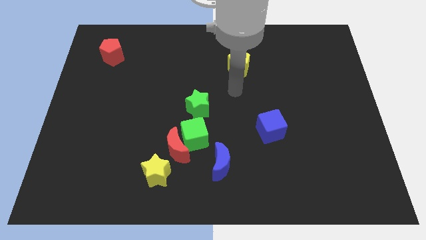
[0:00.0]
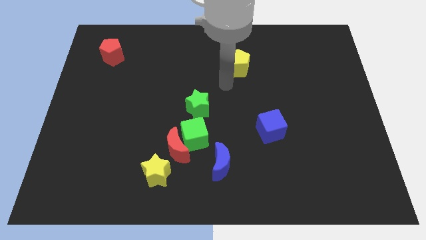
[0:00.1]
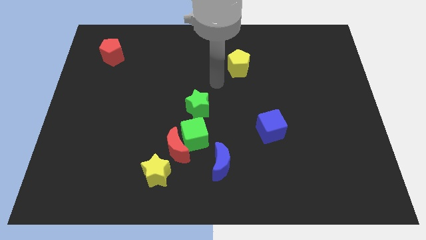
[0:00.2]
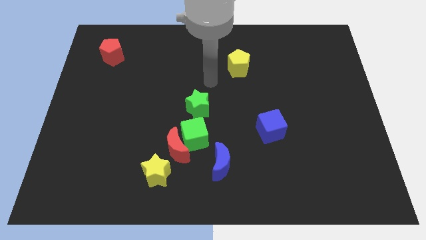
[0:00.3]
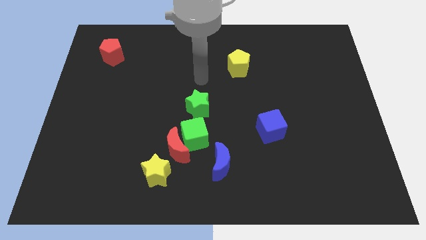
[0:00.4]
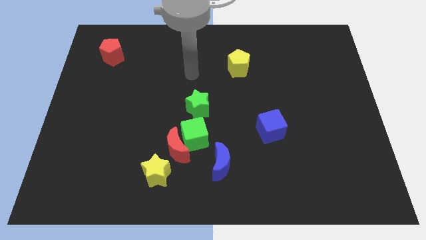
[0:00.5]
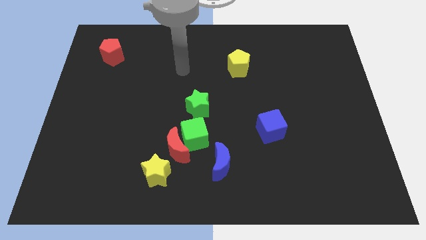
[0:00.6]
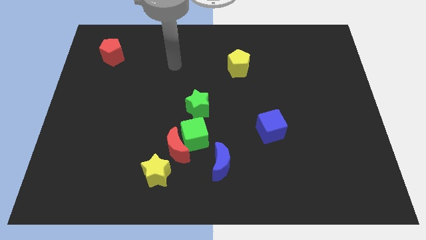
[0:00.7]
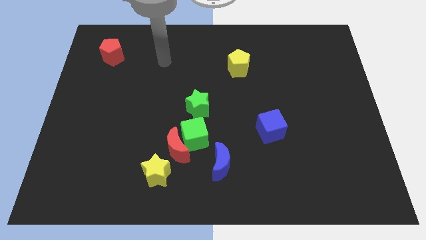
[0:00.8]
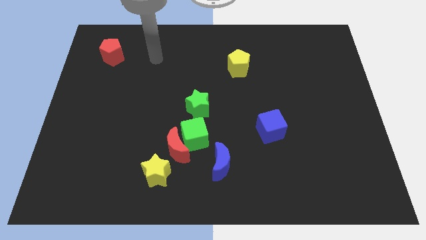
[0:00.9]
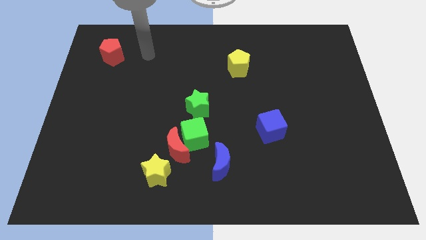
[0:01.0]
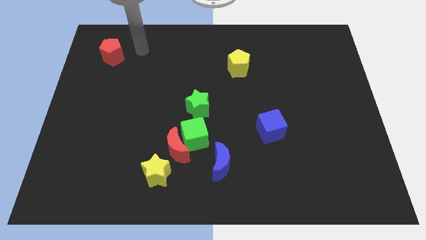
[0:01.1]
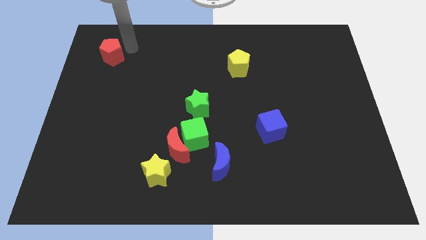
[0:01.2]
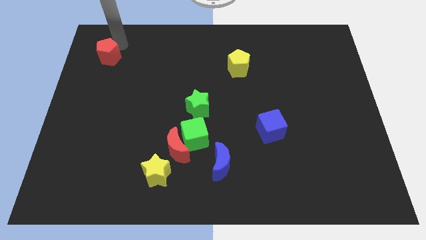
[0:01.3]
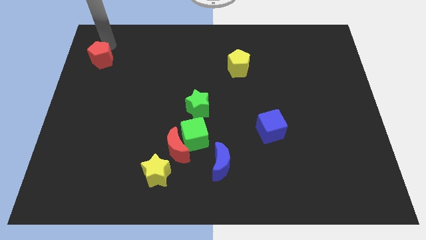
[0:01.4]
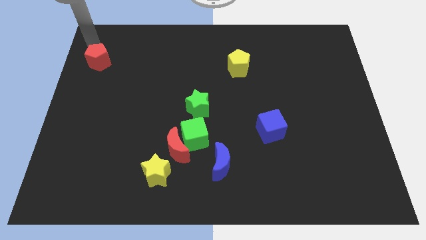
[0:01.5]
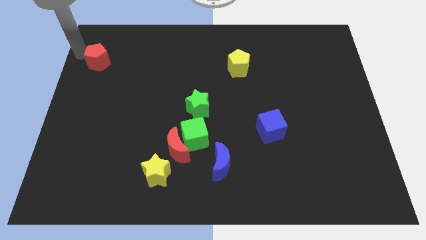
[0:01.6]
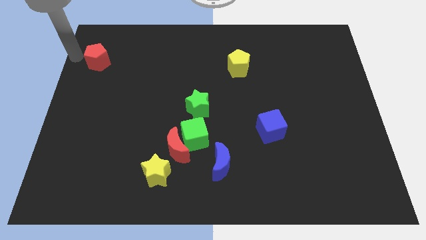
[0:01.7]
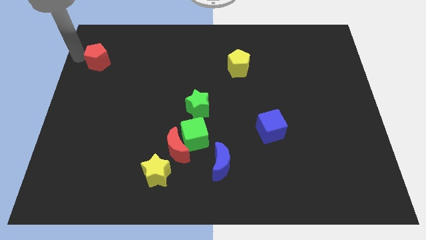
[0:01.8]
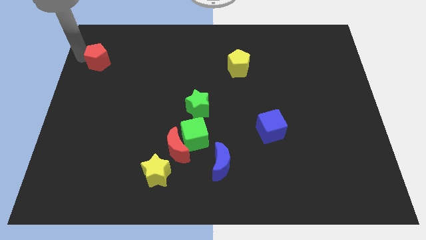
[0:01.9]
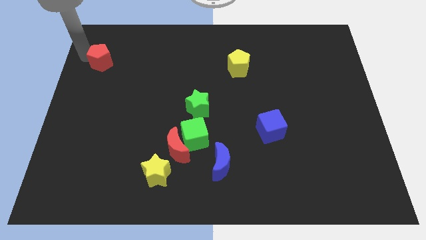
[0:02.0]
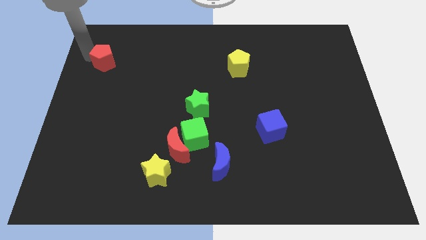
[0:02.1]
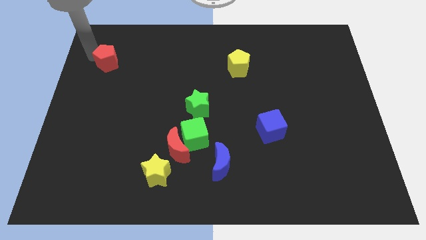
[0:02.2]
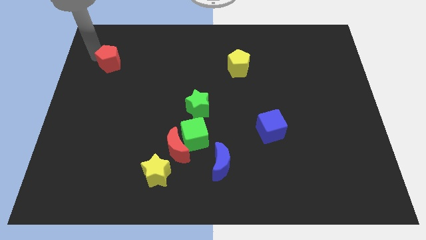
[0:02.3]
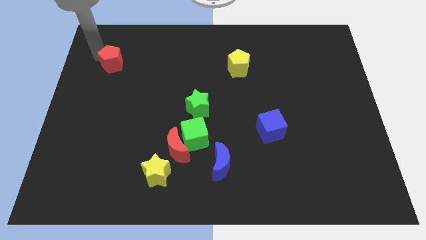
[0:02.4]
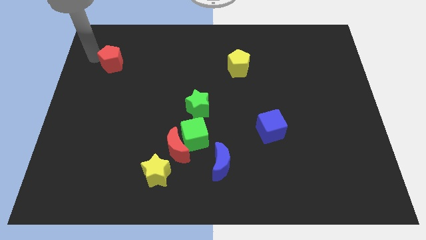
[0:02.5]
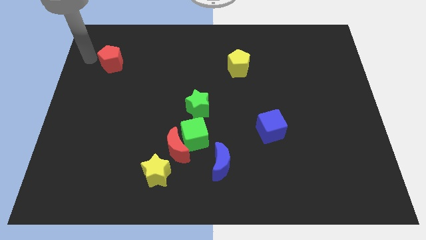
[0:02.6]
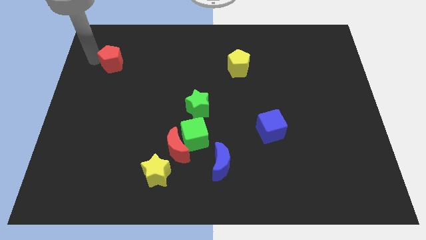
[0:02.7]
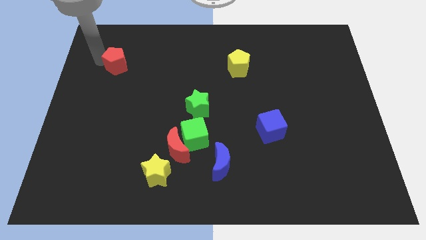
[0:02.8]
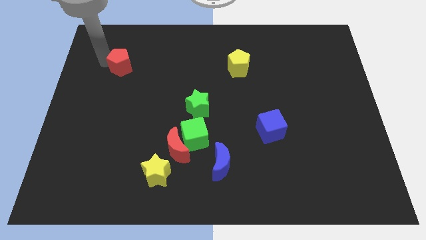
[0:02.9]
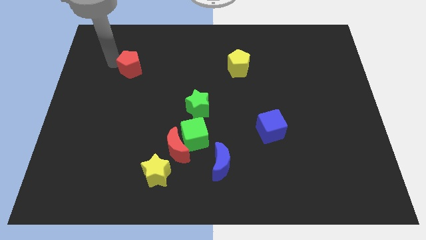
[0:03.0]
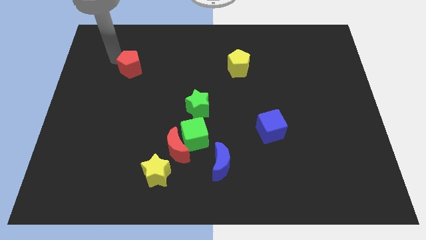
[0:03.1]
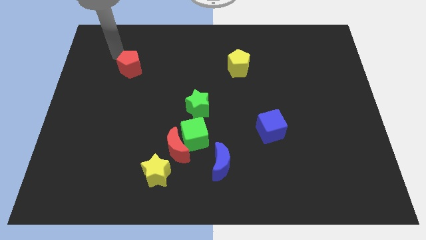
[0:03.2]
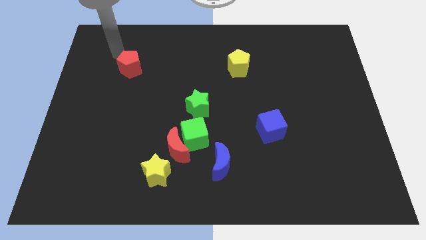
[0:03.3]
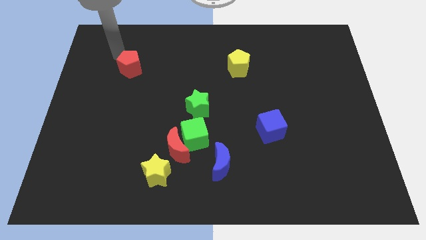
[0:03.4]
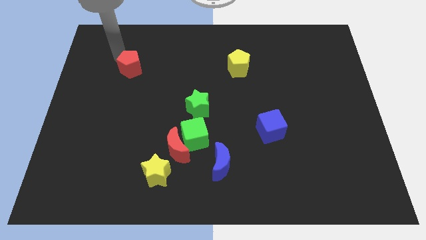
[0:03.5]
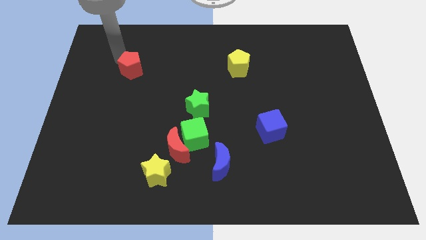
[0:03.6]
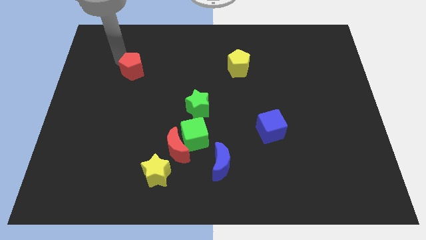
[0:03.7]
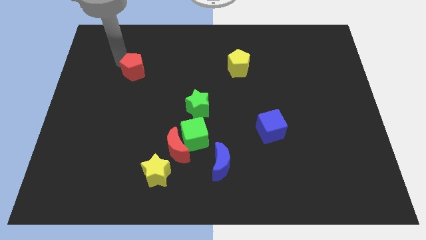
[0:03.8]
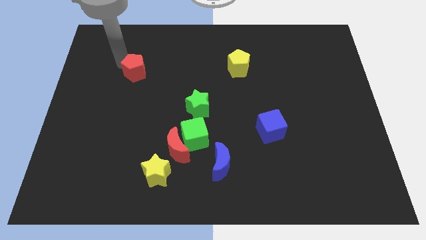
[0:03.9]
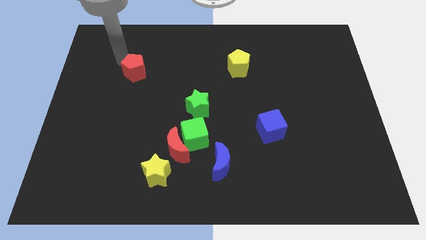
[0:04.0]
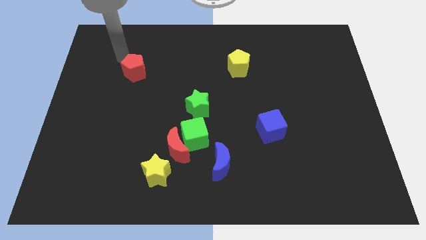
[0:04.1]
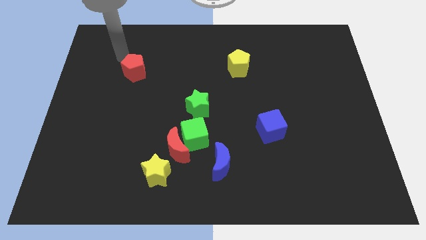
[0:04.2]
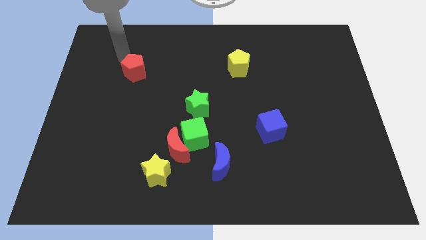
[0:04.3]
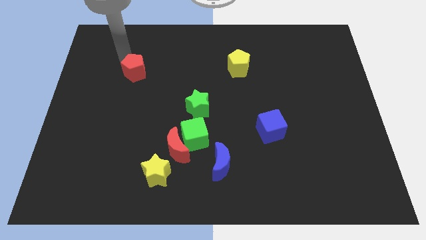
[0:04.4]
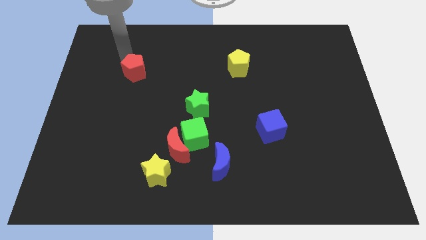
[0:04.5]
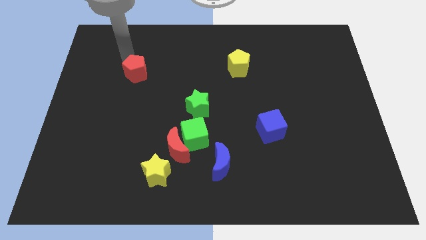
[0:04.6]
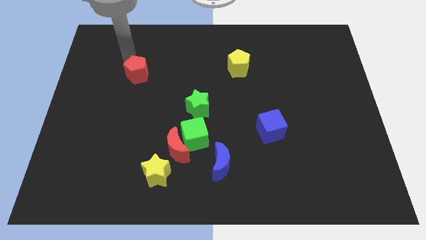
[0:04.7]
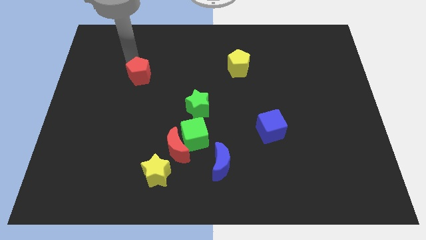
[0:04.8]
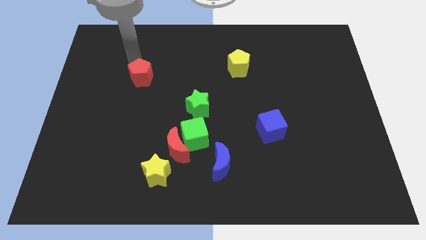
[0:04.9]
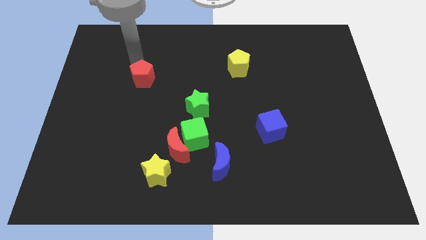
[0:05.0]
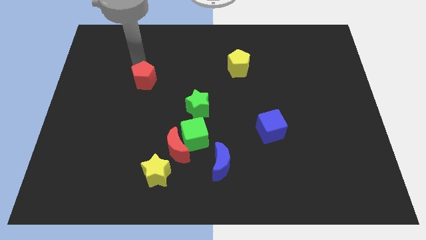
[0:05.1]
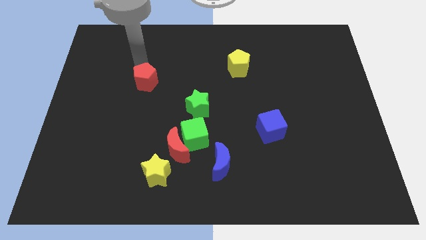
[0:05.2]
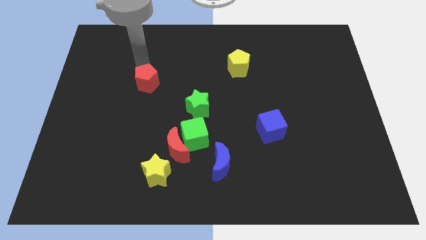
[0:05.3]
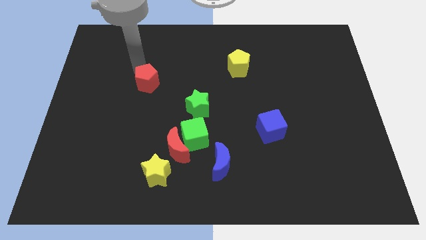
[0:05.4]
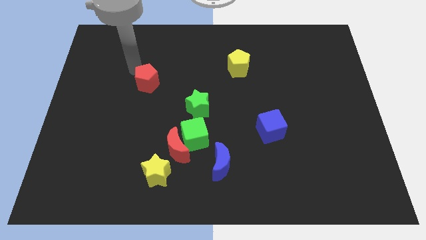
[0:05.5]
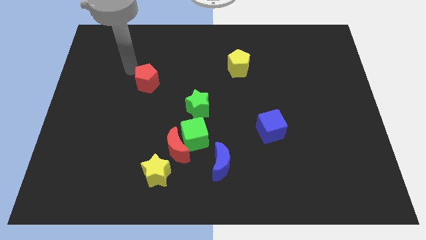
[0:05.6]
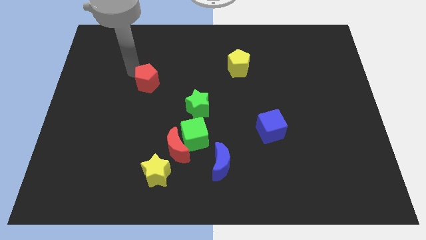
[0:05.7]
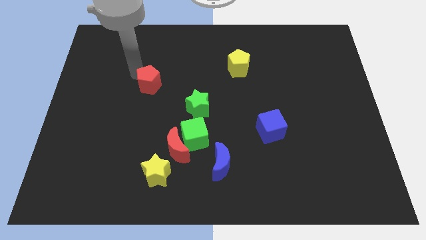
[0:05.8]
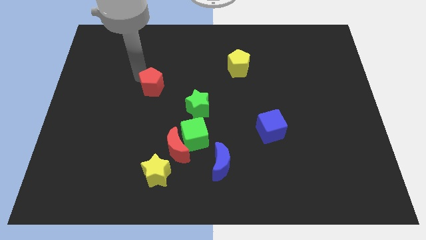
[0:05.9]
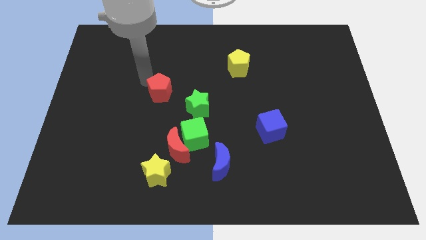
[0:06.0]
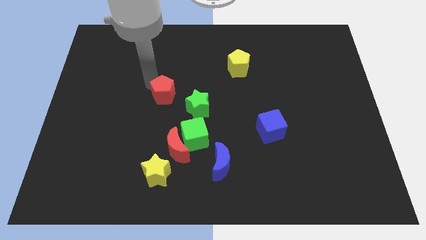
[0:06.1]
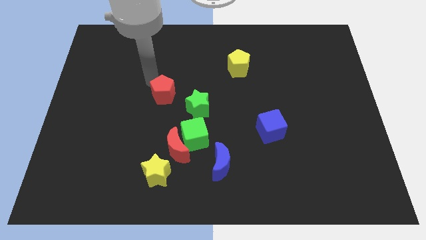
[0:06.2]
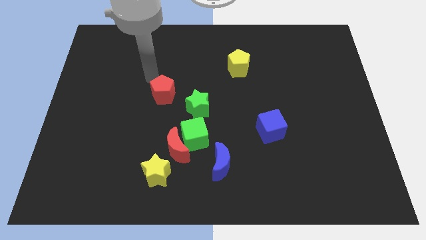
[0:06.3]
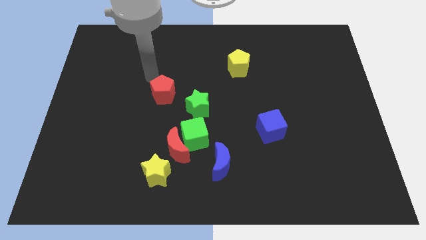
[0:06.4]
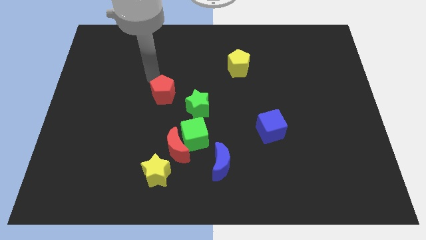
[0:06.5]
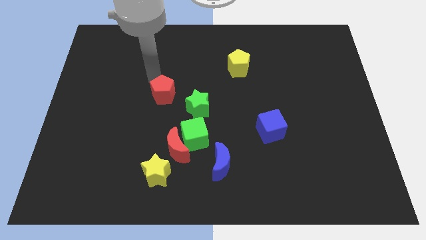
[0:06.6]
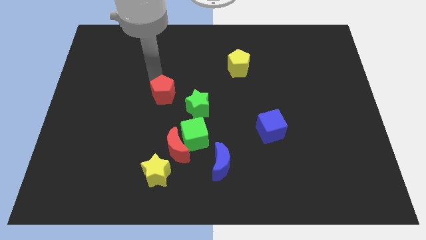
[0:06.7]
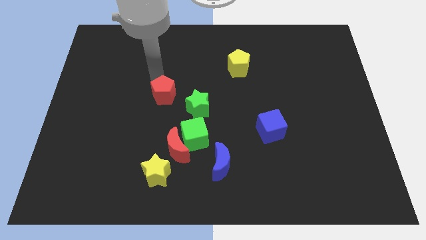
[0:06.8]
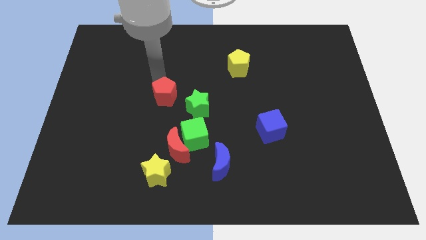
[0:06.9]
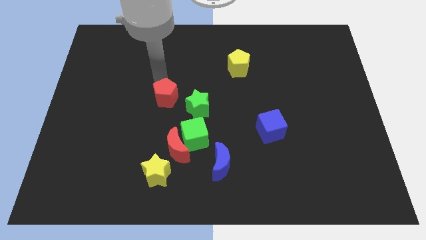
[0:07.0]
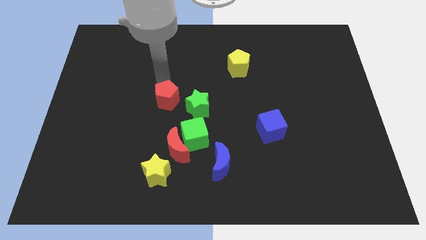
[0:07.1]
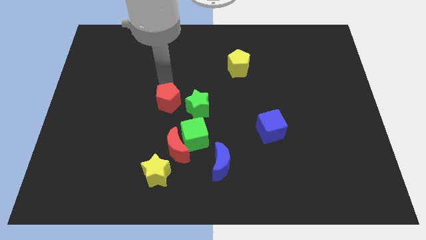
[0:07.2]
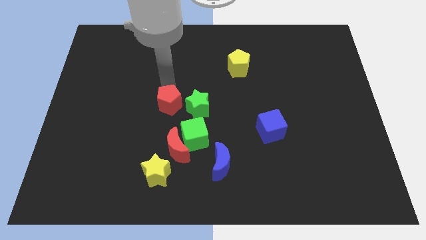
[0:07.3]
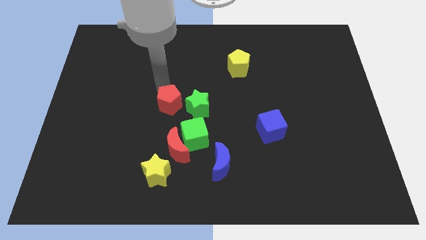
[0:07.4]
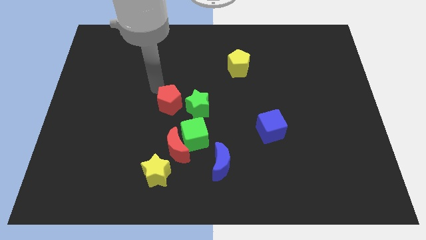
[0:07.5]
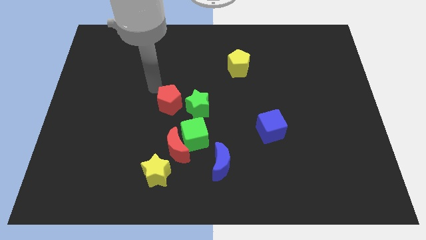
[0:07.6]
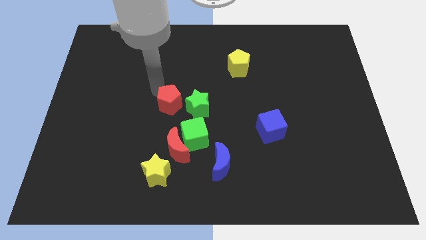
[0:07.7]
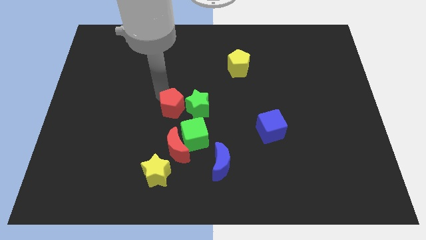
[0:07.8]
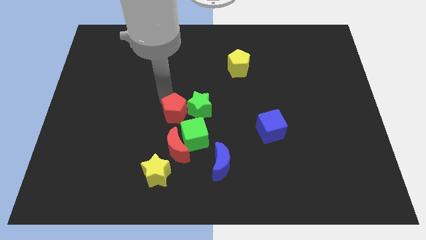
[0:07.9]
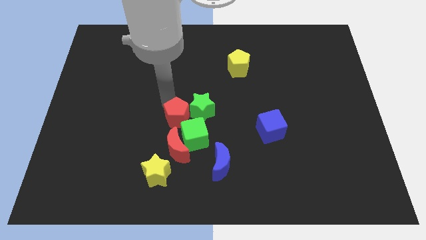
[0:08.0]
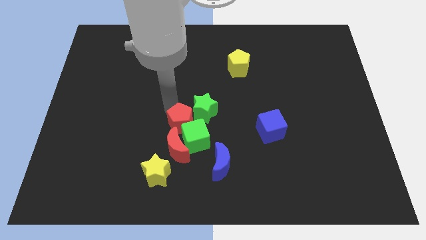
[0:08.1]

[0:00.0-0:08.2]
slide the red pentagon to the top right side of the red moon
